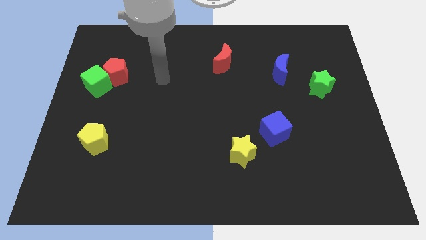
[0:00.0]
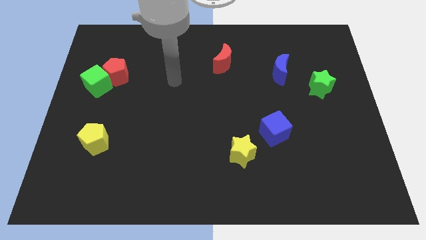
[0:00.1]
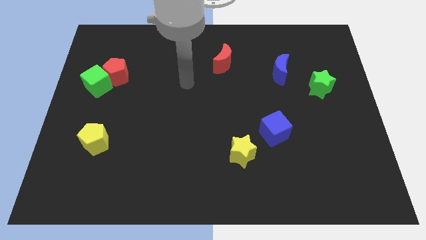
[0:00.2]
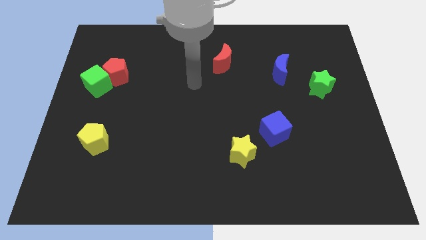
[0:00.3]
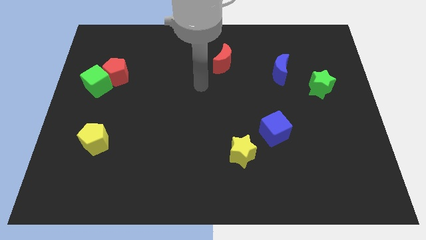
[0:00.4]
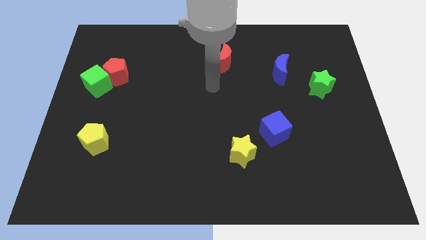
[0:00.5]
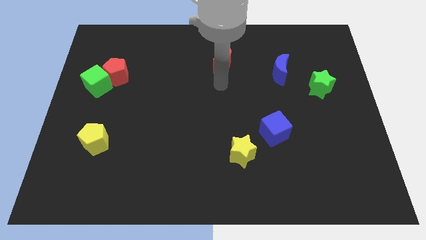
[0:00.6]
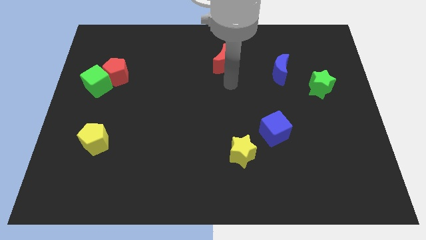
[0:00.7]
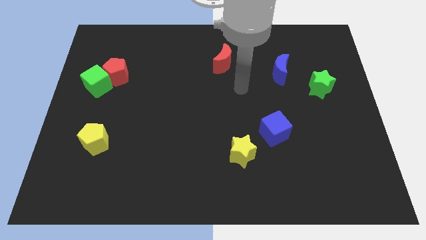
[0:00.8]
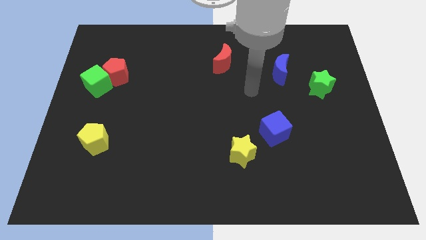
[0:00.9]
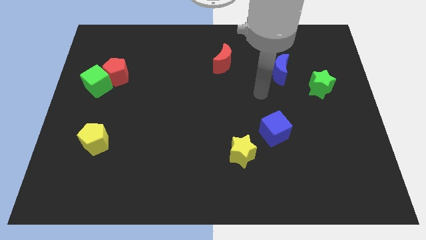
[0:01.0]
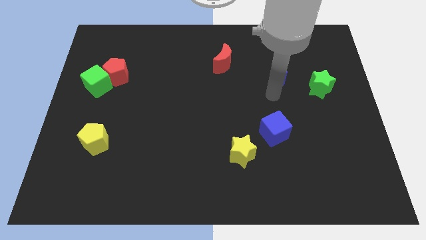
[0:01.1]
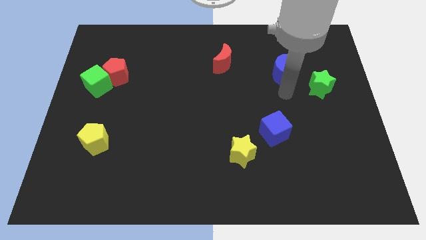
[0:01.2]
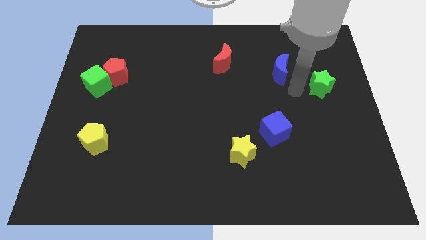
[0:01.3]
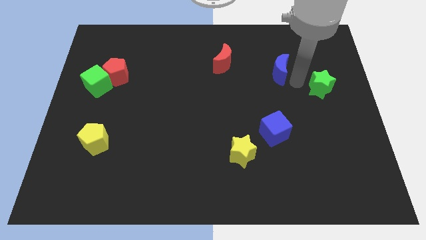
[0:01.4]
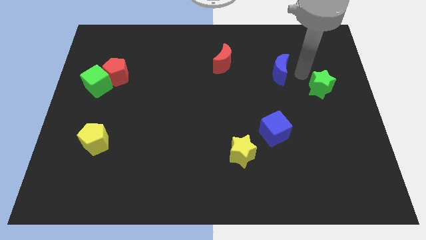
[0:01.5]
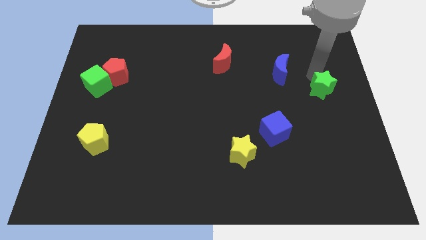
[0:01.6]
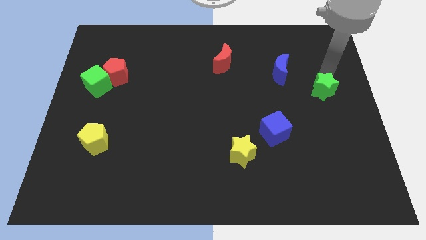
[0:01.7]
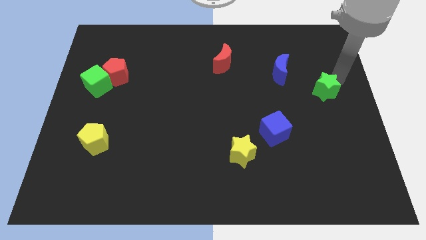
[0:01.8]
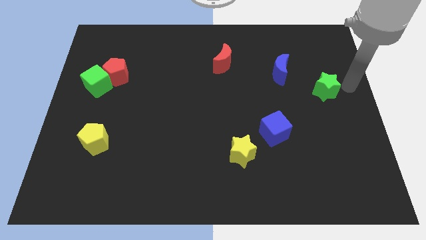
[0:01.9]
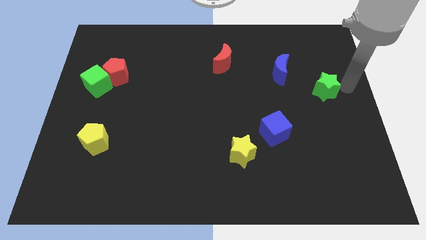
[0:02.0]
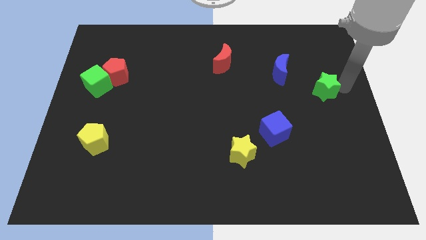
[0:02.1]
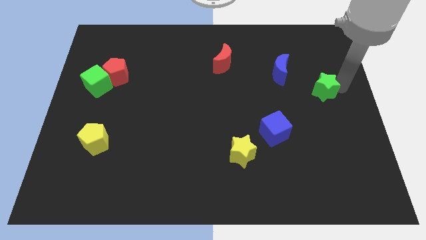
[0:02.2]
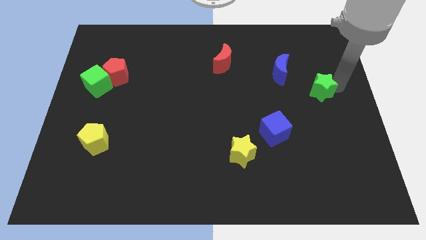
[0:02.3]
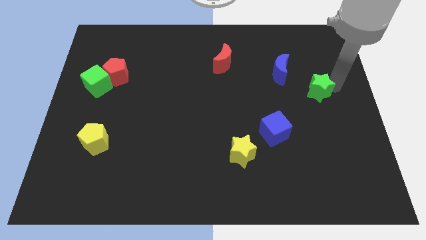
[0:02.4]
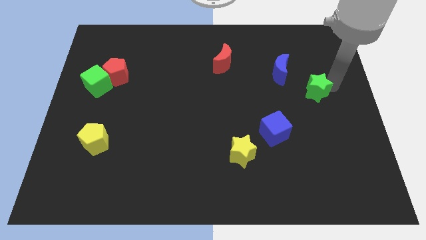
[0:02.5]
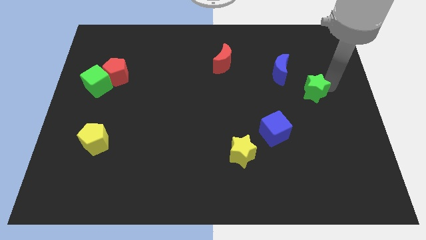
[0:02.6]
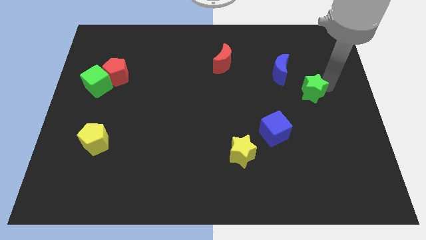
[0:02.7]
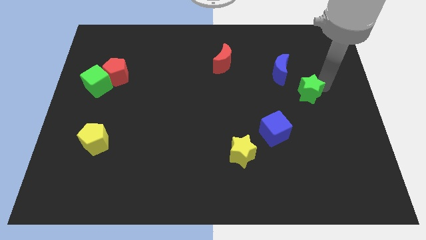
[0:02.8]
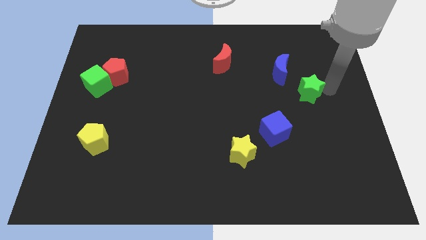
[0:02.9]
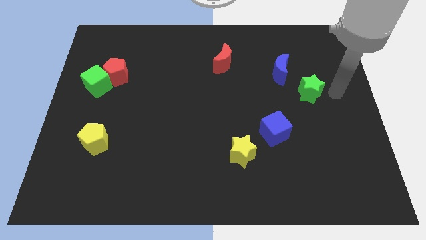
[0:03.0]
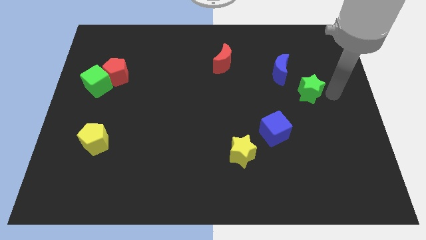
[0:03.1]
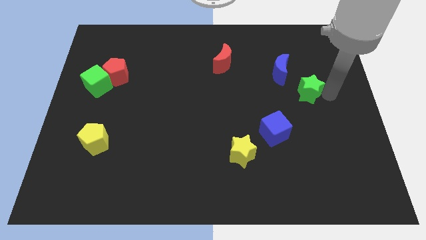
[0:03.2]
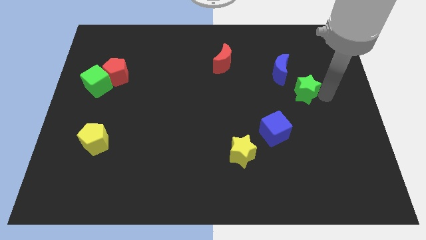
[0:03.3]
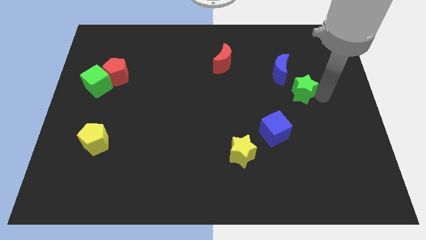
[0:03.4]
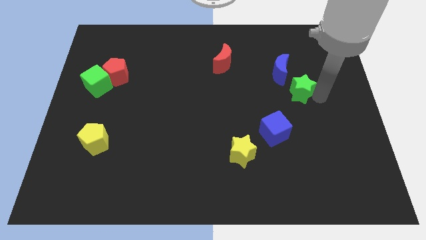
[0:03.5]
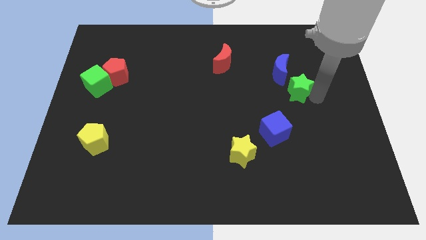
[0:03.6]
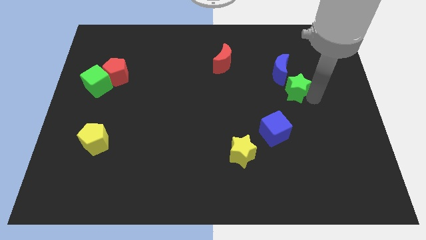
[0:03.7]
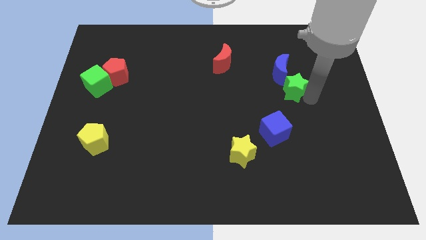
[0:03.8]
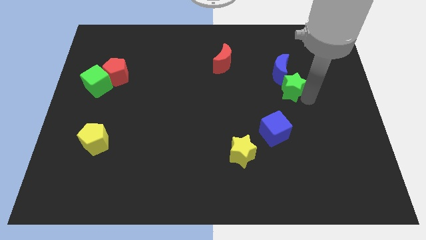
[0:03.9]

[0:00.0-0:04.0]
slide the green star to the left a little

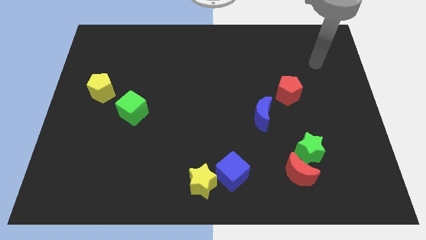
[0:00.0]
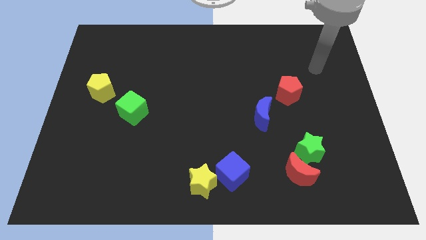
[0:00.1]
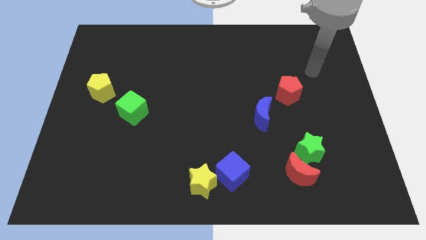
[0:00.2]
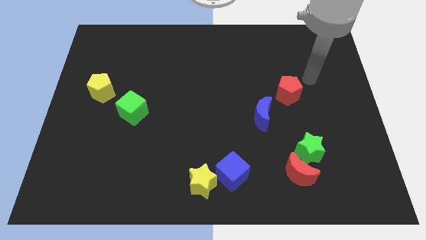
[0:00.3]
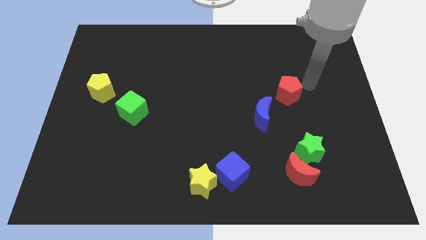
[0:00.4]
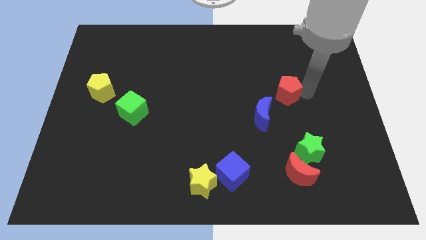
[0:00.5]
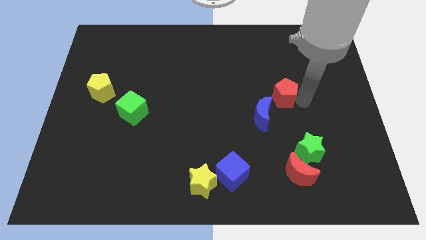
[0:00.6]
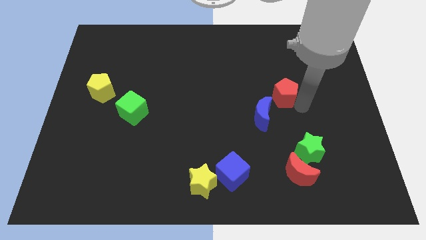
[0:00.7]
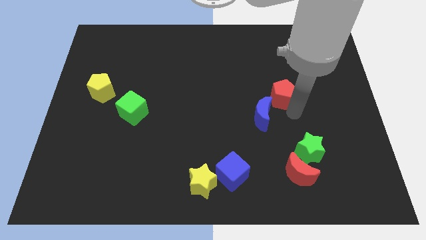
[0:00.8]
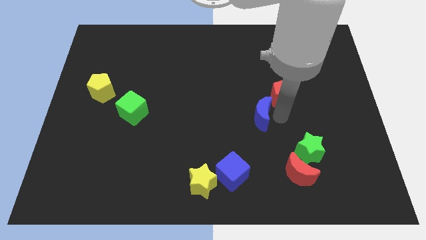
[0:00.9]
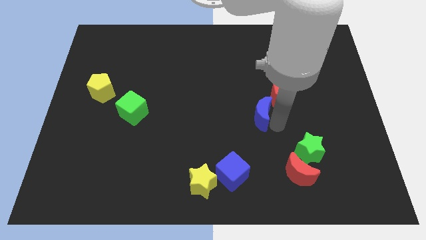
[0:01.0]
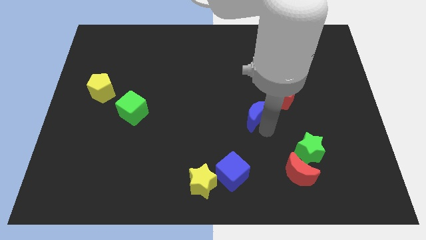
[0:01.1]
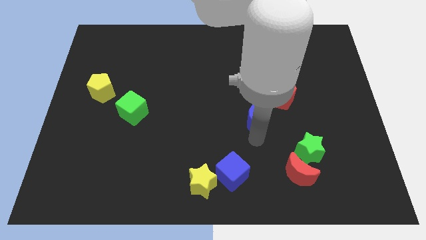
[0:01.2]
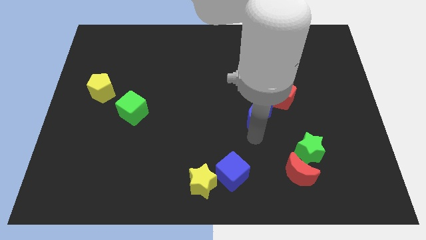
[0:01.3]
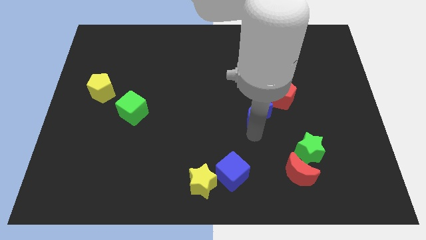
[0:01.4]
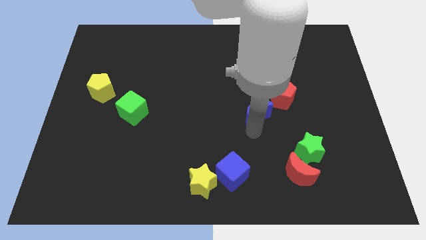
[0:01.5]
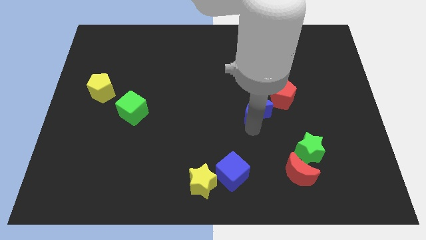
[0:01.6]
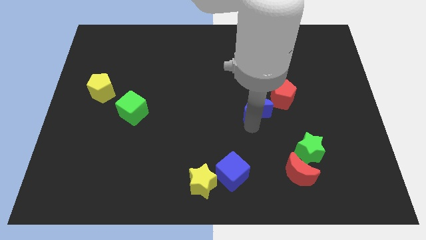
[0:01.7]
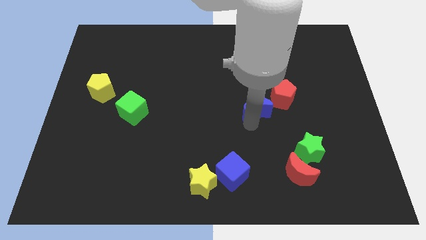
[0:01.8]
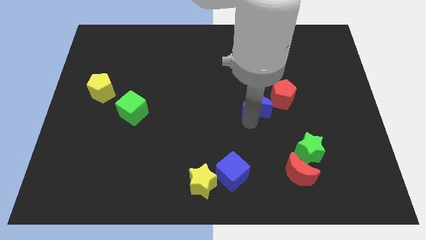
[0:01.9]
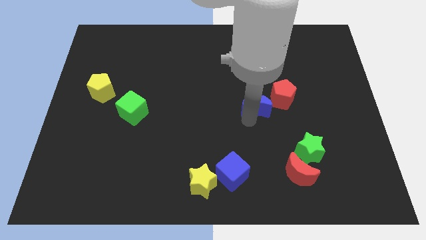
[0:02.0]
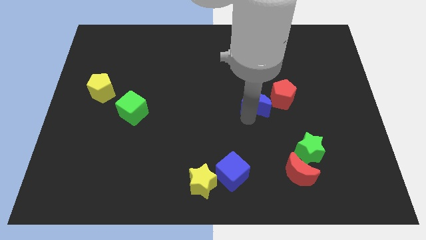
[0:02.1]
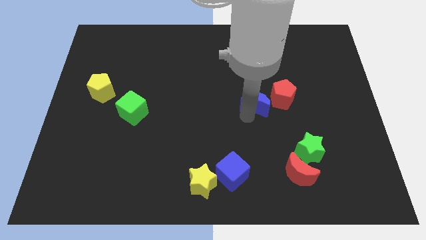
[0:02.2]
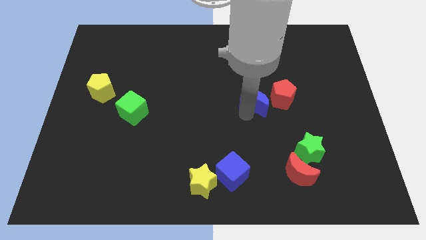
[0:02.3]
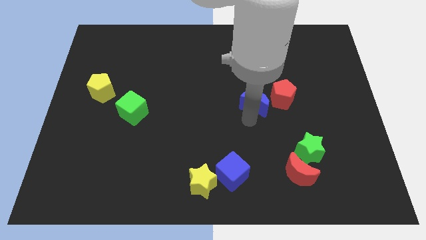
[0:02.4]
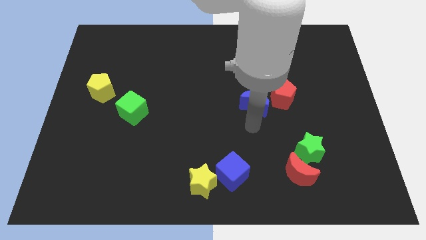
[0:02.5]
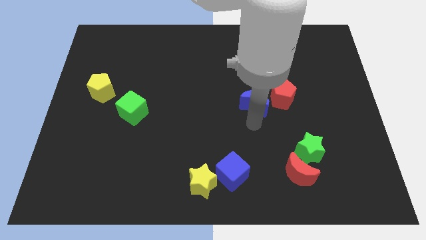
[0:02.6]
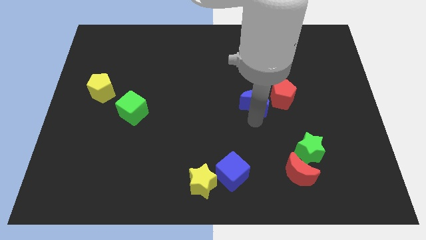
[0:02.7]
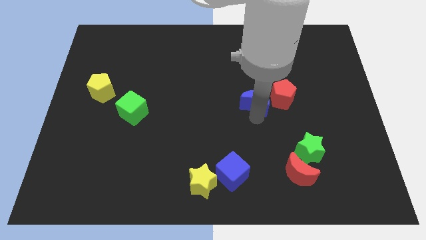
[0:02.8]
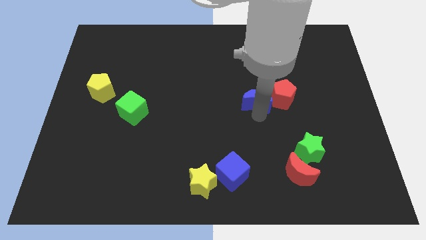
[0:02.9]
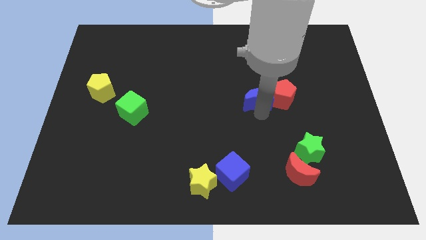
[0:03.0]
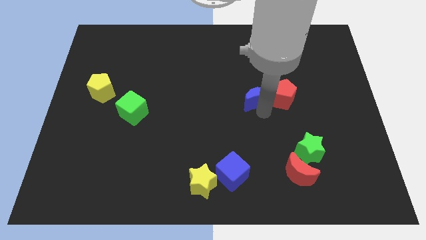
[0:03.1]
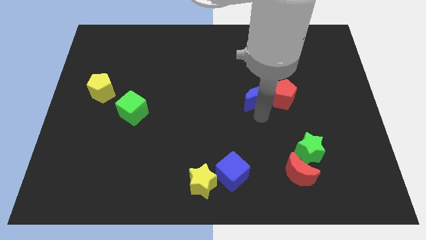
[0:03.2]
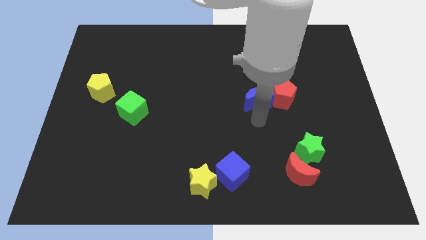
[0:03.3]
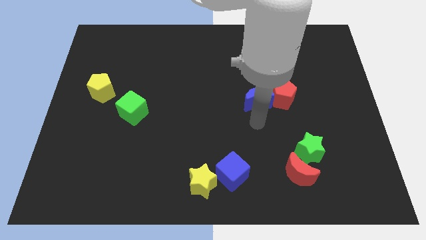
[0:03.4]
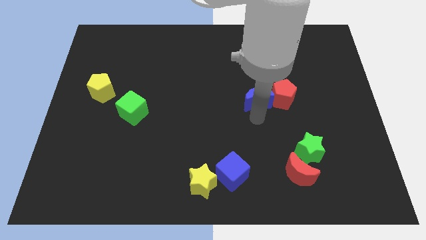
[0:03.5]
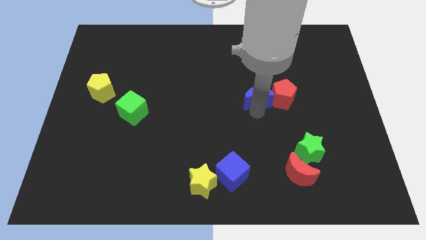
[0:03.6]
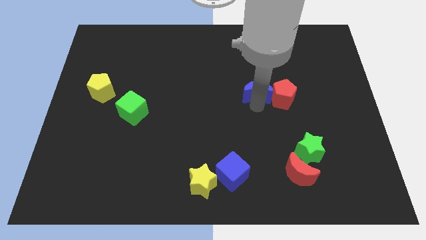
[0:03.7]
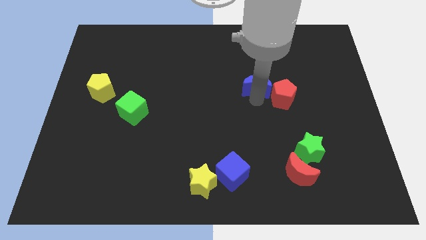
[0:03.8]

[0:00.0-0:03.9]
slightly slide the blue moon upwards
